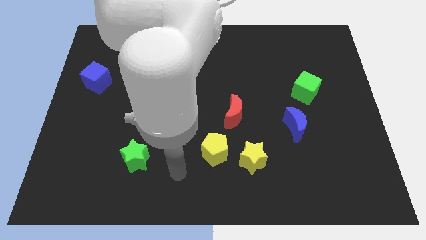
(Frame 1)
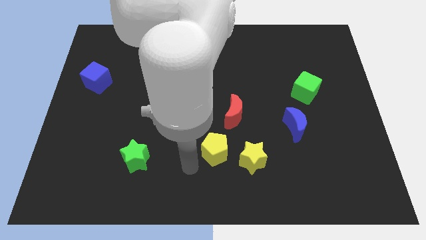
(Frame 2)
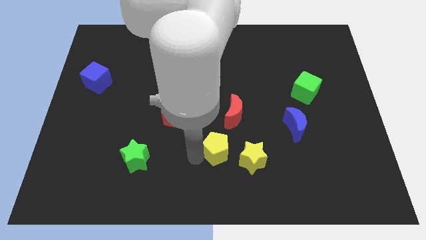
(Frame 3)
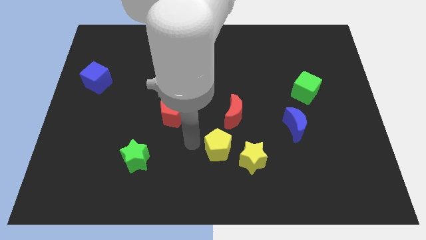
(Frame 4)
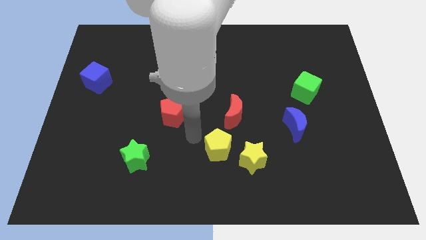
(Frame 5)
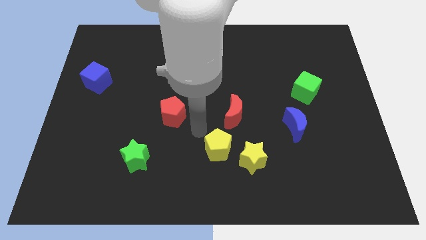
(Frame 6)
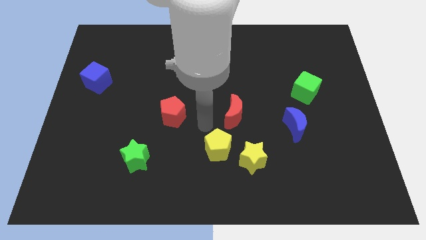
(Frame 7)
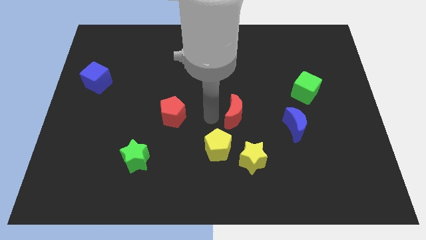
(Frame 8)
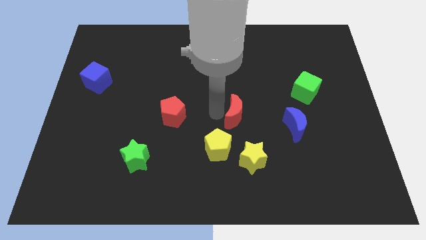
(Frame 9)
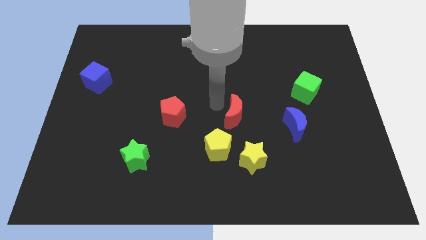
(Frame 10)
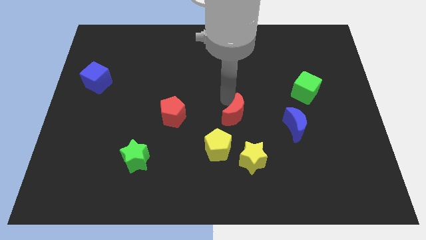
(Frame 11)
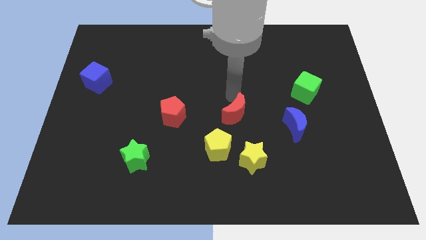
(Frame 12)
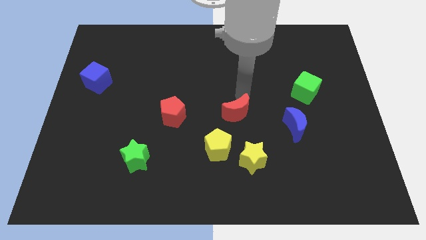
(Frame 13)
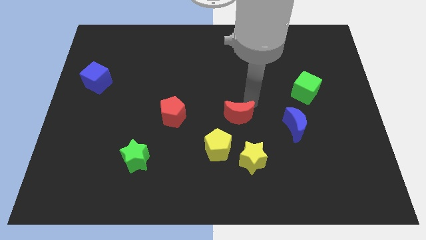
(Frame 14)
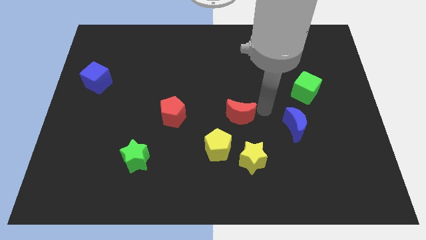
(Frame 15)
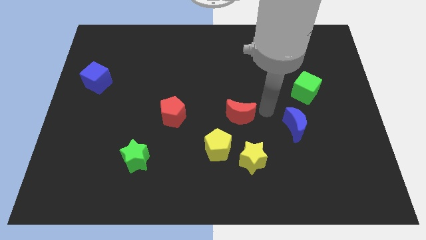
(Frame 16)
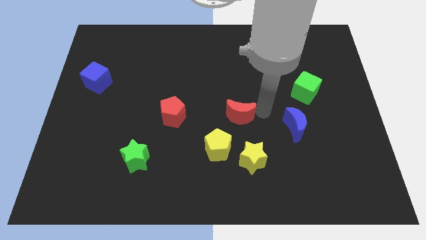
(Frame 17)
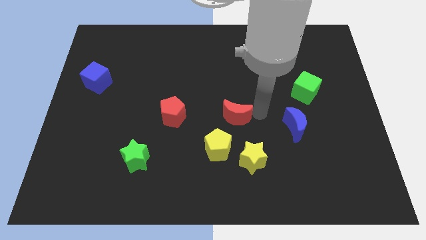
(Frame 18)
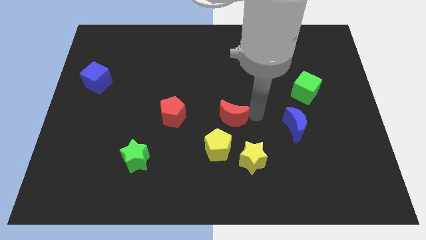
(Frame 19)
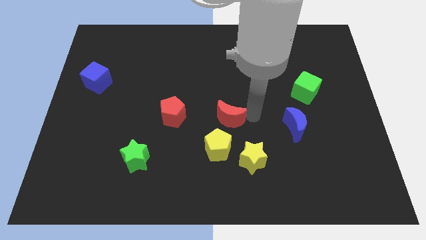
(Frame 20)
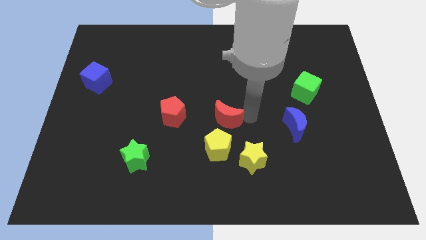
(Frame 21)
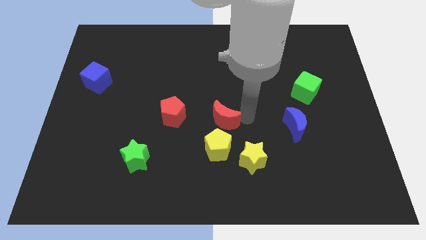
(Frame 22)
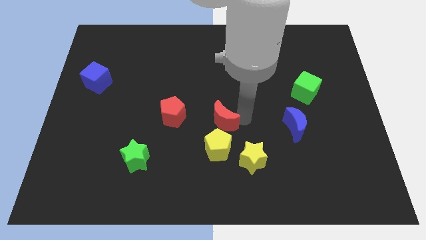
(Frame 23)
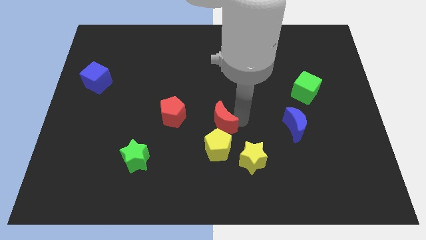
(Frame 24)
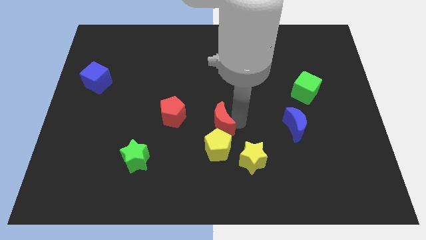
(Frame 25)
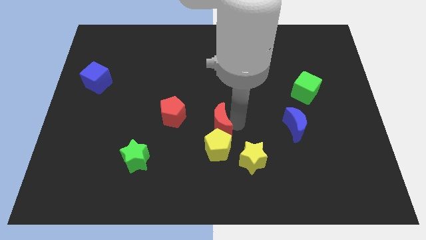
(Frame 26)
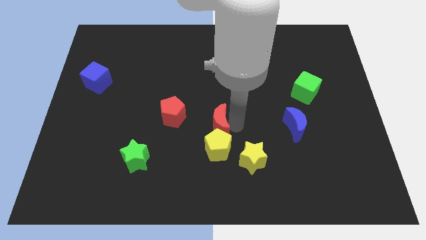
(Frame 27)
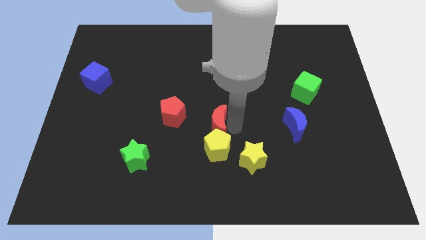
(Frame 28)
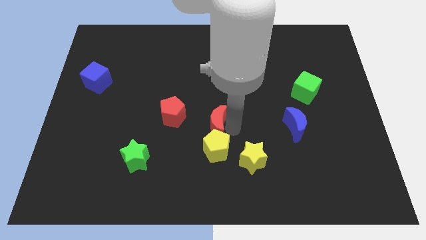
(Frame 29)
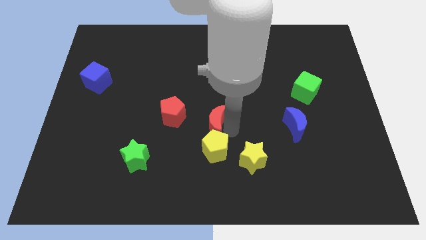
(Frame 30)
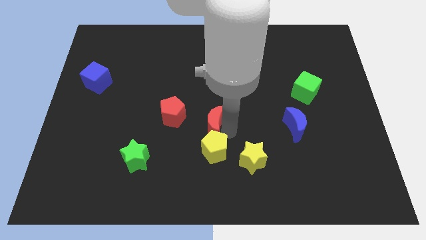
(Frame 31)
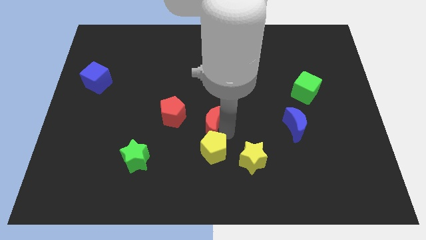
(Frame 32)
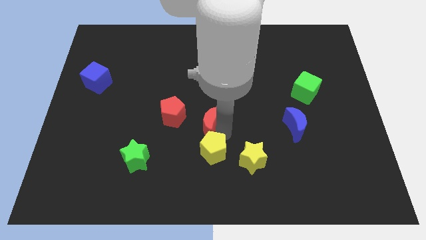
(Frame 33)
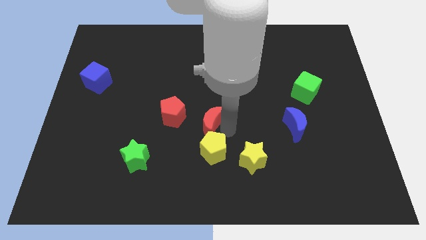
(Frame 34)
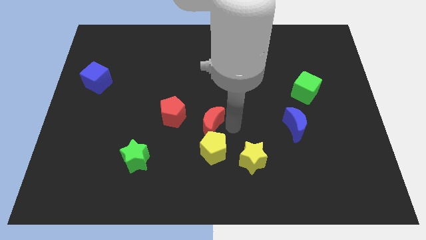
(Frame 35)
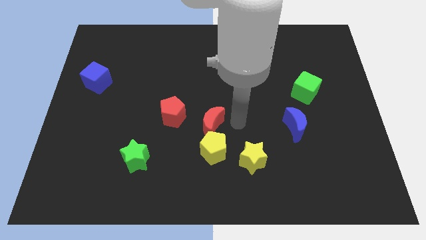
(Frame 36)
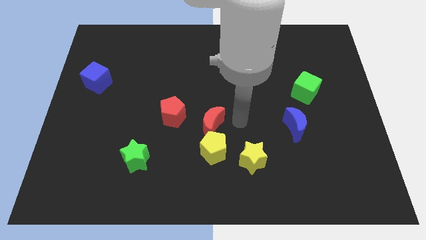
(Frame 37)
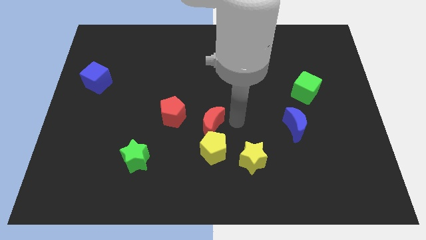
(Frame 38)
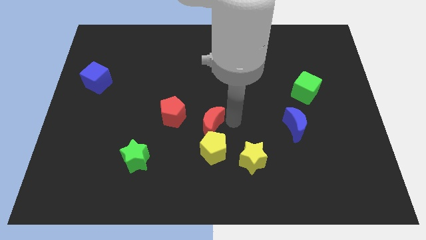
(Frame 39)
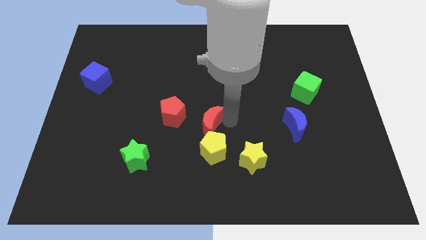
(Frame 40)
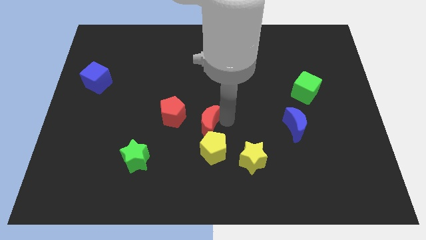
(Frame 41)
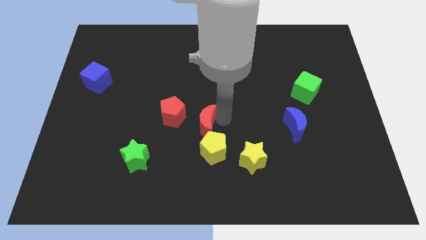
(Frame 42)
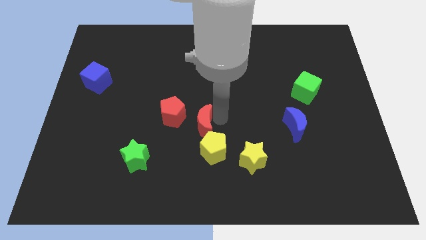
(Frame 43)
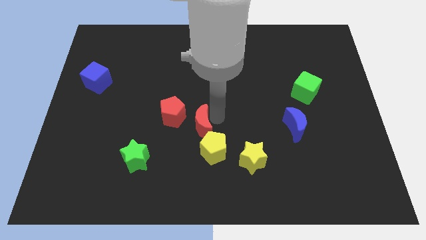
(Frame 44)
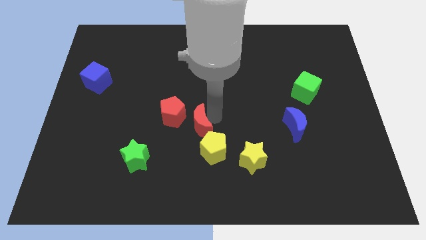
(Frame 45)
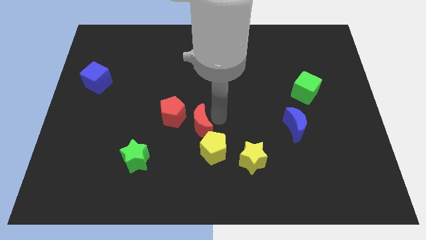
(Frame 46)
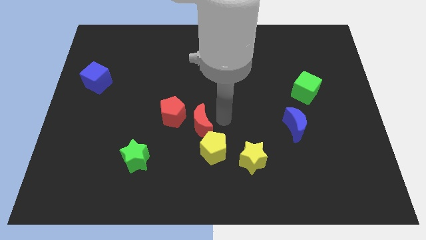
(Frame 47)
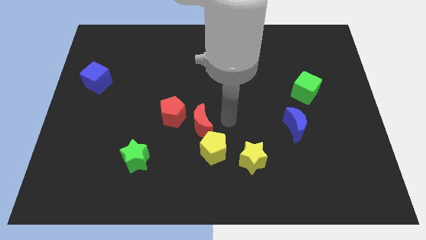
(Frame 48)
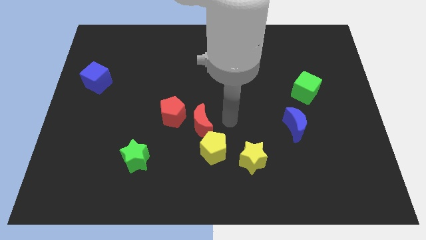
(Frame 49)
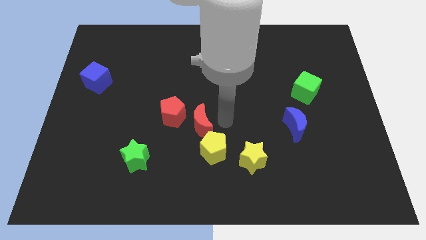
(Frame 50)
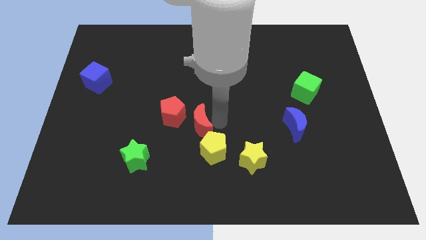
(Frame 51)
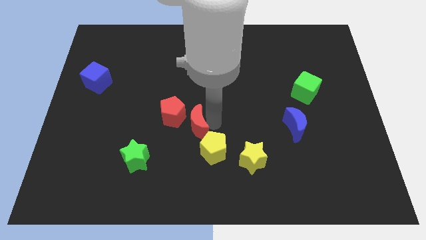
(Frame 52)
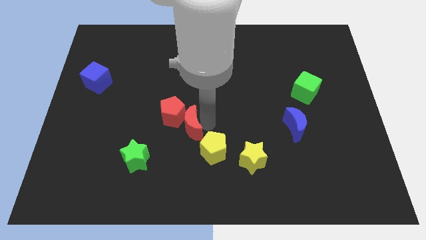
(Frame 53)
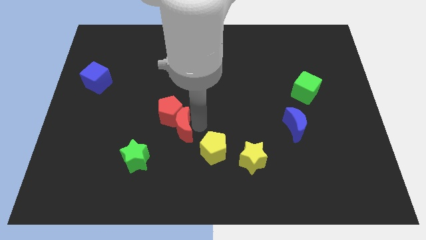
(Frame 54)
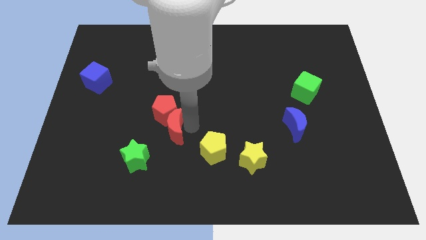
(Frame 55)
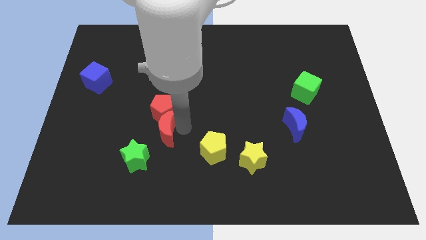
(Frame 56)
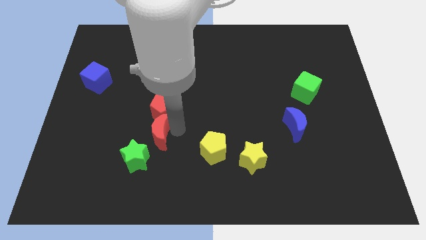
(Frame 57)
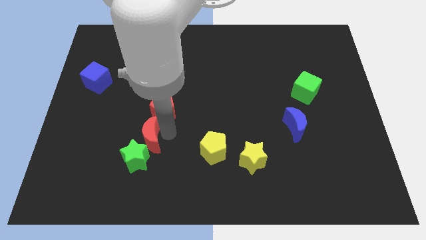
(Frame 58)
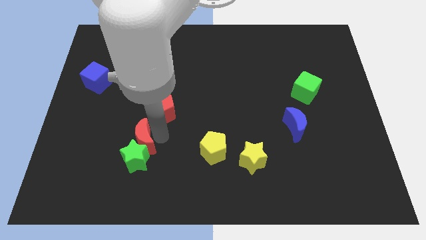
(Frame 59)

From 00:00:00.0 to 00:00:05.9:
slide the red moon diagonally up and to the left of the green star
